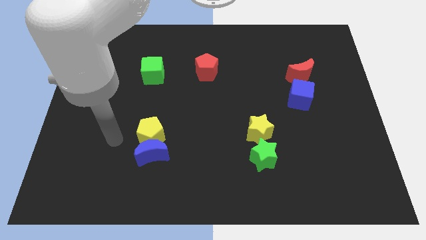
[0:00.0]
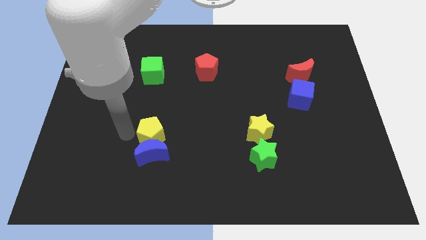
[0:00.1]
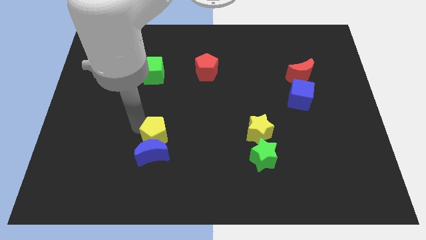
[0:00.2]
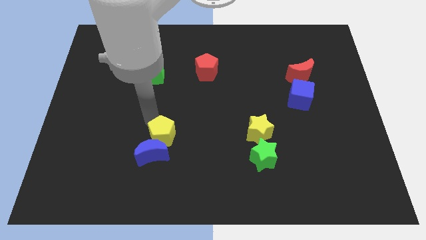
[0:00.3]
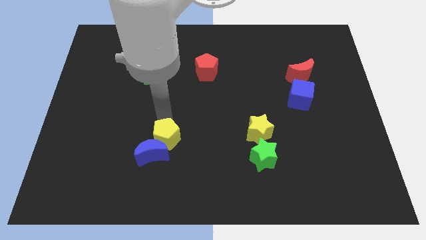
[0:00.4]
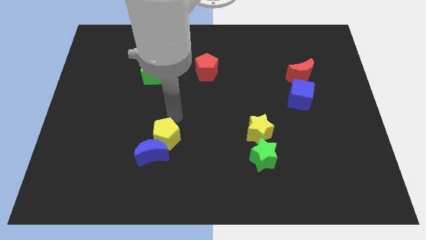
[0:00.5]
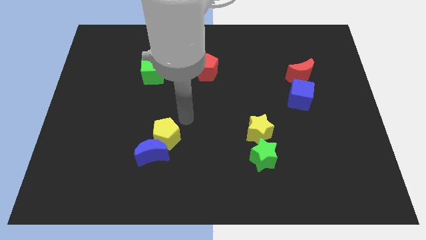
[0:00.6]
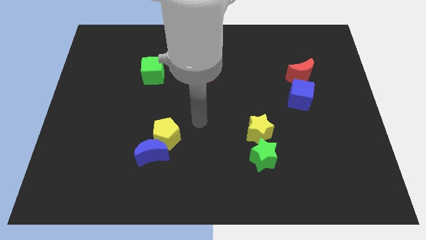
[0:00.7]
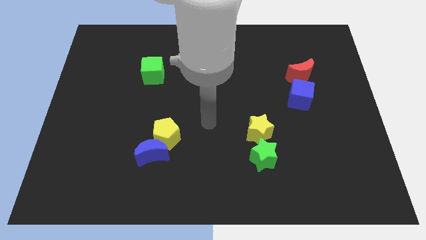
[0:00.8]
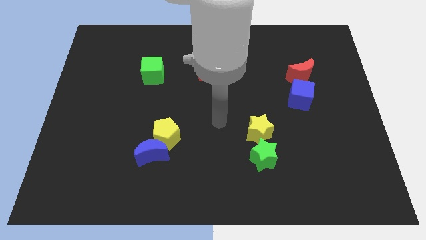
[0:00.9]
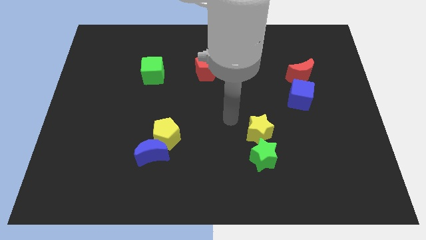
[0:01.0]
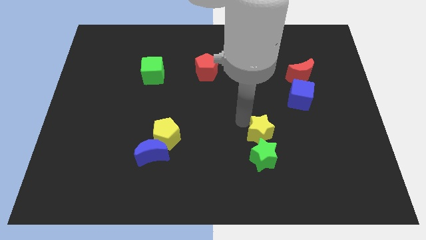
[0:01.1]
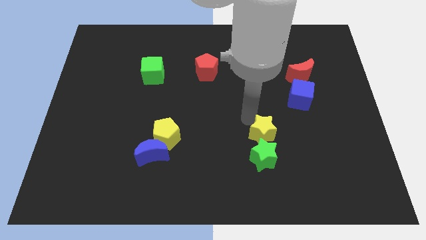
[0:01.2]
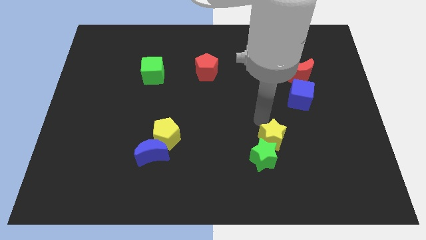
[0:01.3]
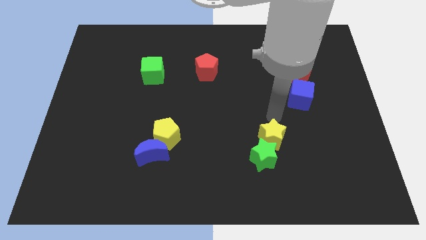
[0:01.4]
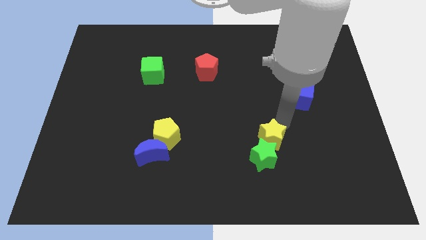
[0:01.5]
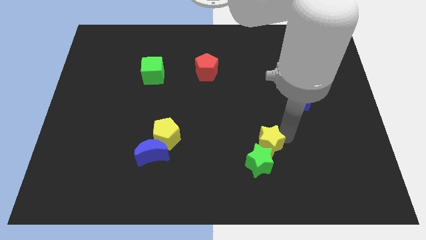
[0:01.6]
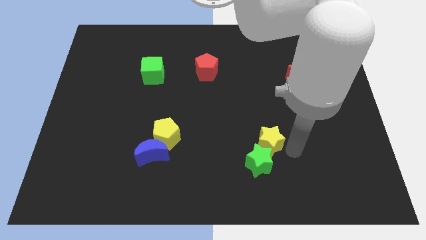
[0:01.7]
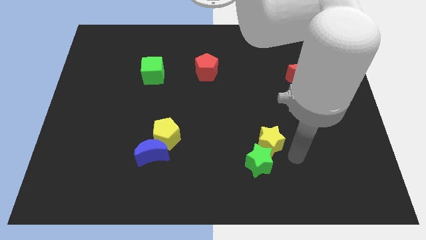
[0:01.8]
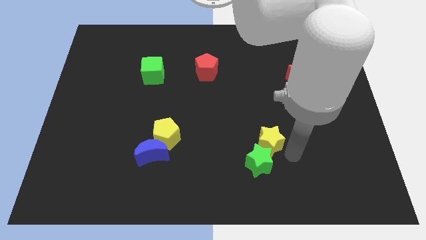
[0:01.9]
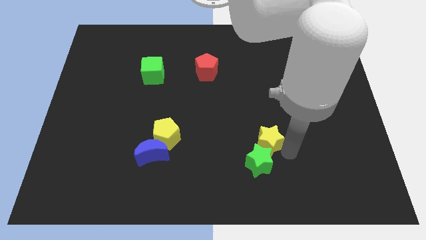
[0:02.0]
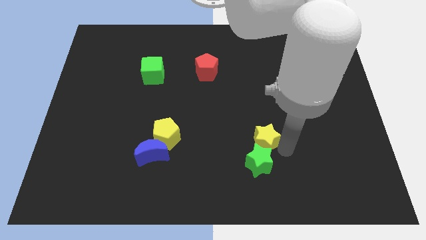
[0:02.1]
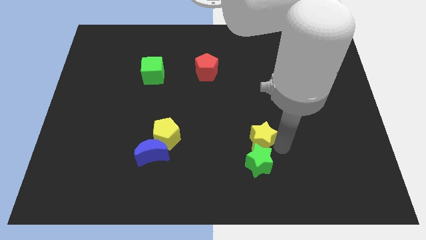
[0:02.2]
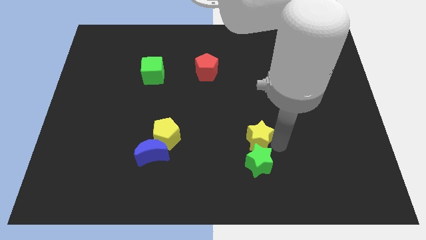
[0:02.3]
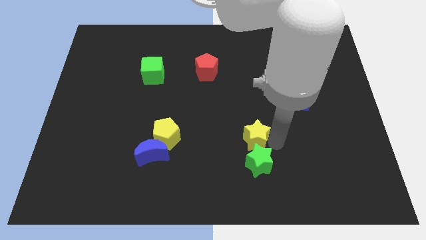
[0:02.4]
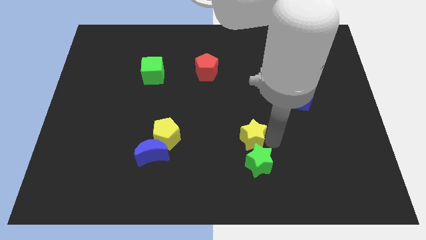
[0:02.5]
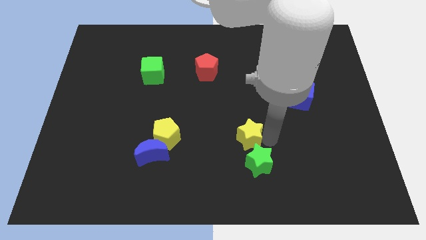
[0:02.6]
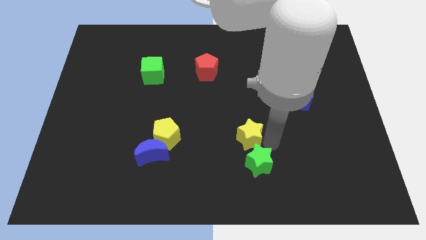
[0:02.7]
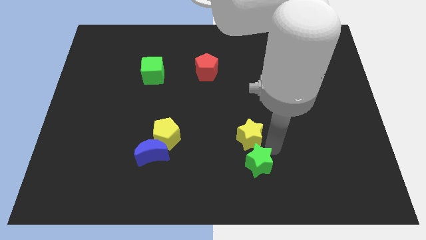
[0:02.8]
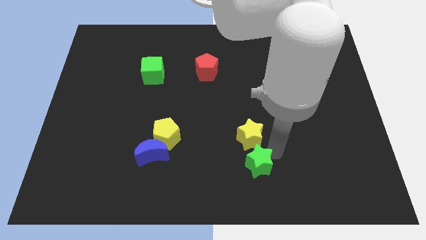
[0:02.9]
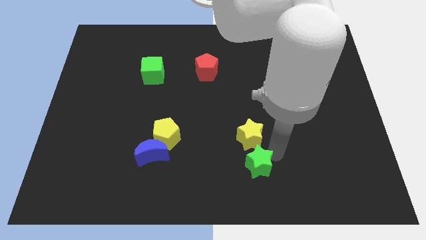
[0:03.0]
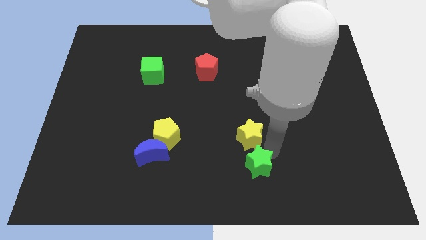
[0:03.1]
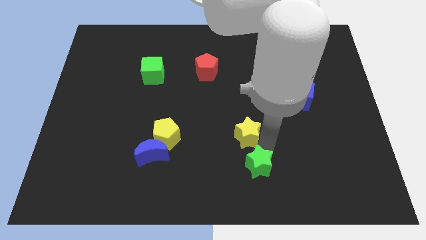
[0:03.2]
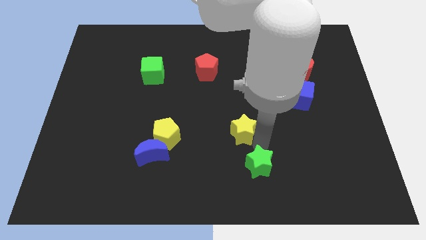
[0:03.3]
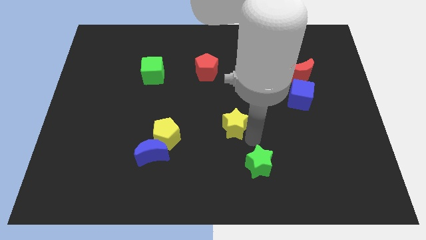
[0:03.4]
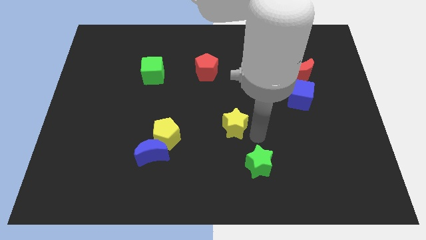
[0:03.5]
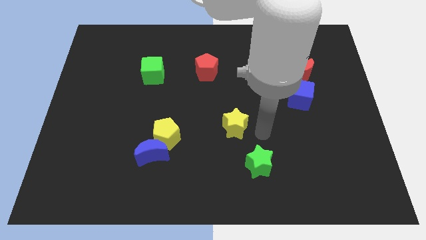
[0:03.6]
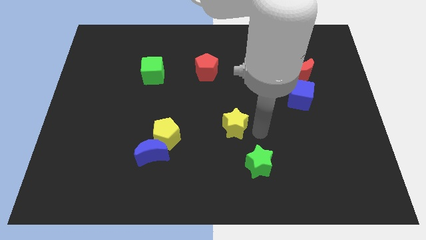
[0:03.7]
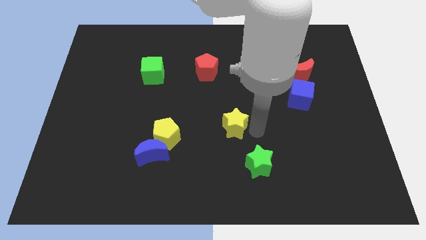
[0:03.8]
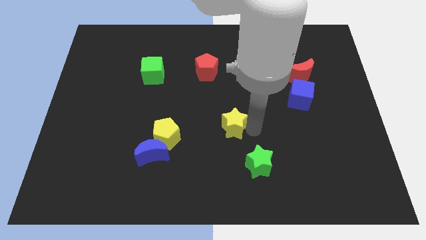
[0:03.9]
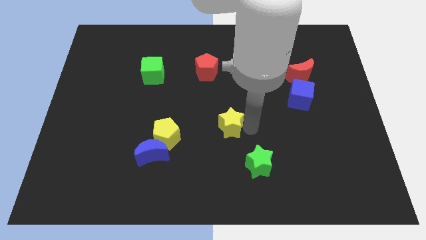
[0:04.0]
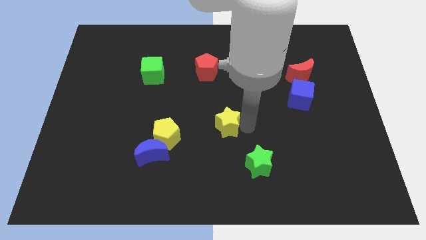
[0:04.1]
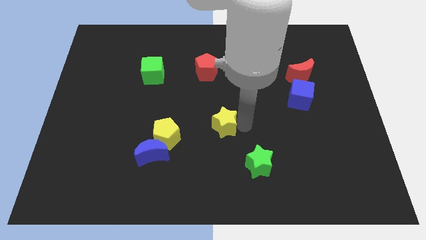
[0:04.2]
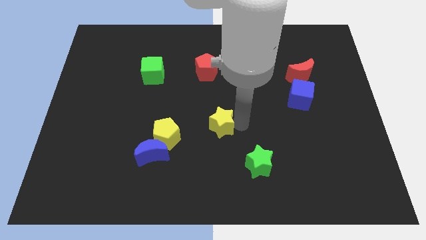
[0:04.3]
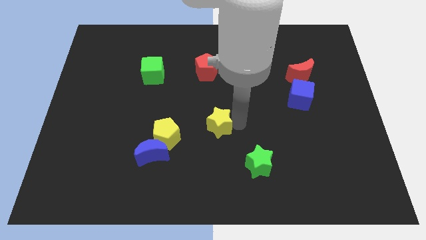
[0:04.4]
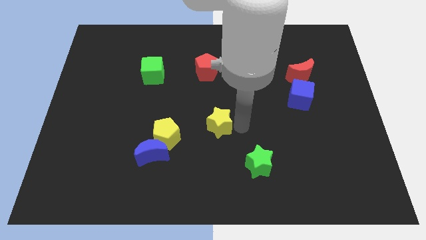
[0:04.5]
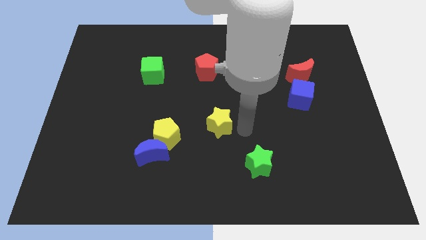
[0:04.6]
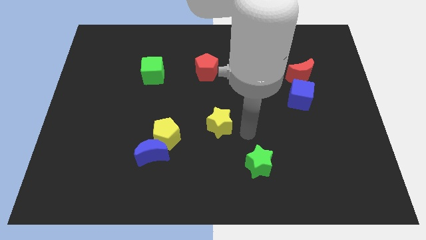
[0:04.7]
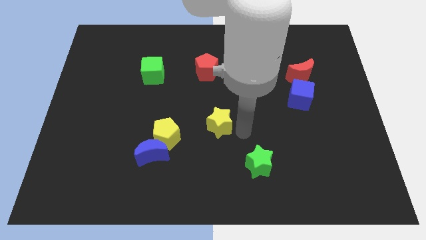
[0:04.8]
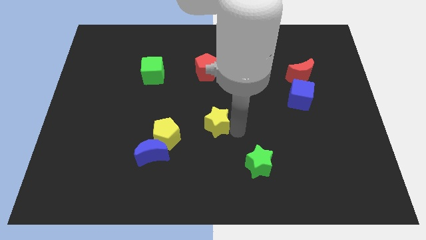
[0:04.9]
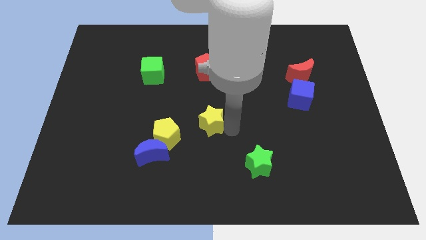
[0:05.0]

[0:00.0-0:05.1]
slide the yellow star to the top right side of the yellow pentagon

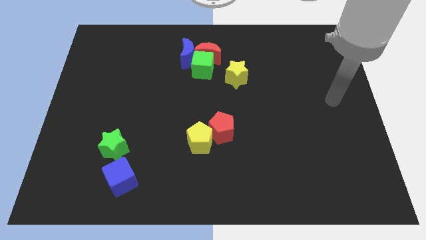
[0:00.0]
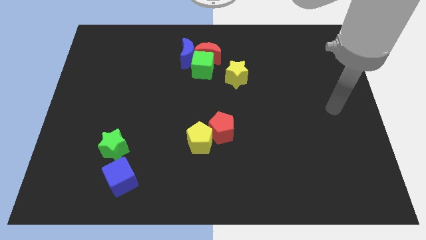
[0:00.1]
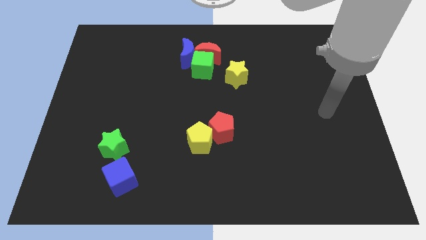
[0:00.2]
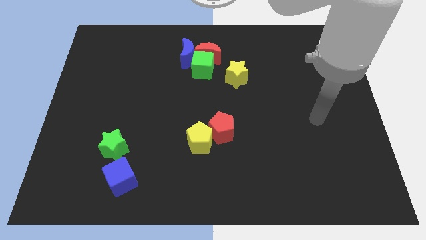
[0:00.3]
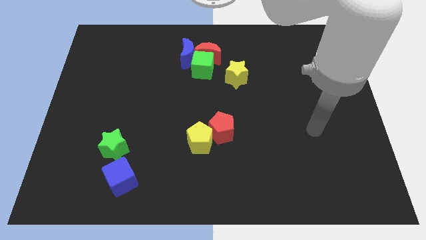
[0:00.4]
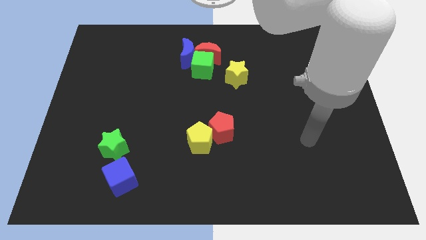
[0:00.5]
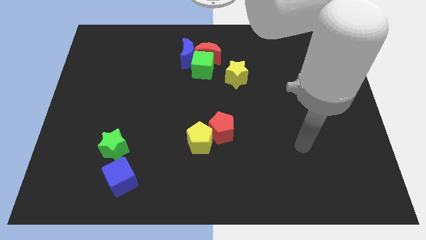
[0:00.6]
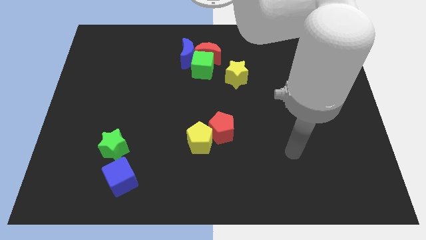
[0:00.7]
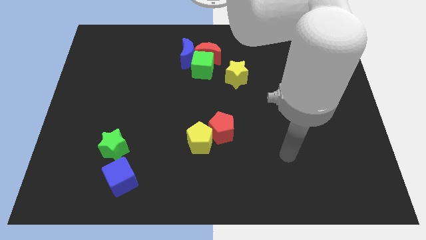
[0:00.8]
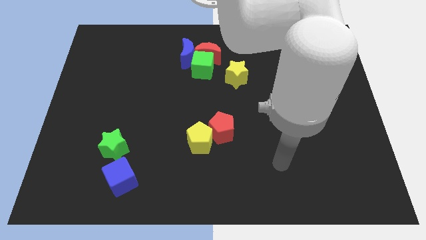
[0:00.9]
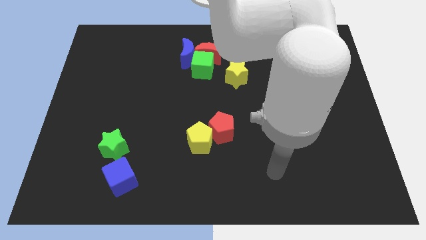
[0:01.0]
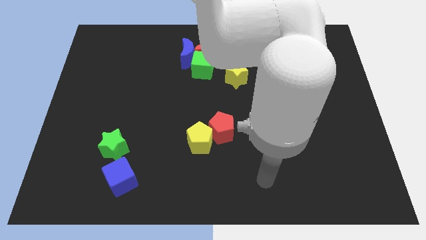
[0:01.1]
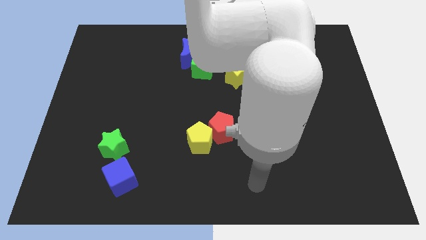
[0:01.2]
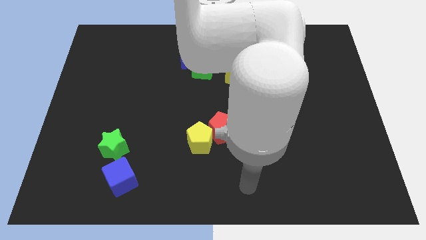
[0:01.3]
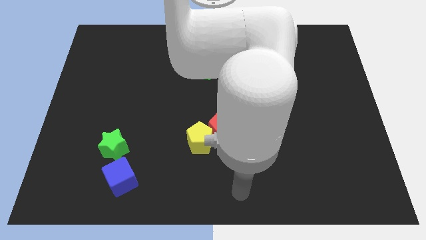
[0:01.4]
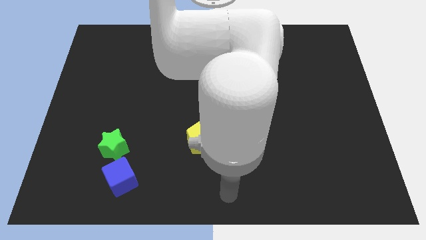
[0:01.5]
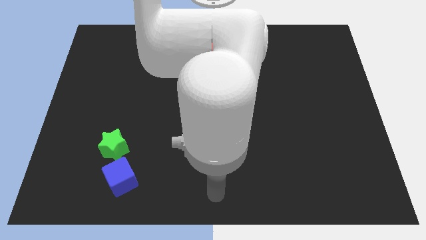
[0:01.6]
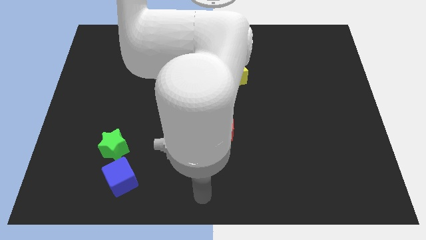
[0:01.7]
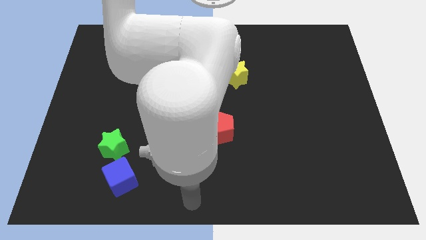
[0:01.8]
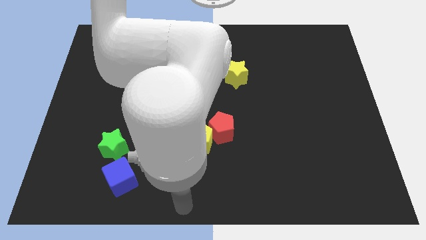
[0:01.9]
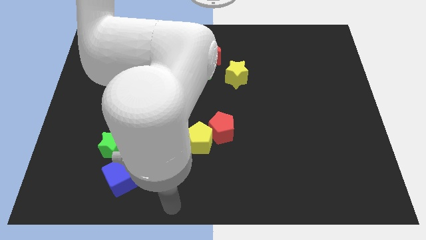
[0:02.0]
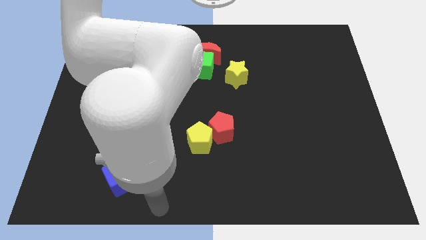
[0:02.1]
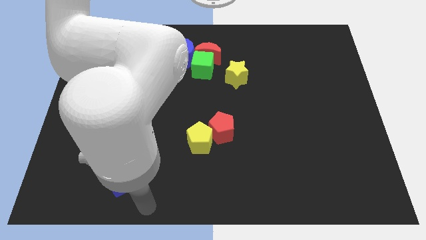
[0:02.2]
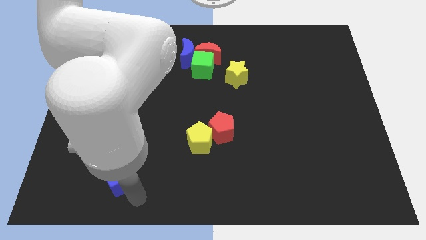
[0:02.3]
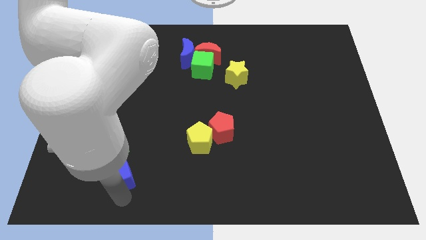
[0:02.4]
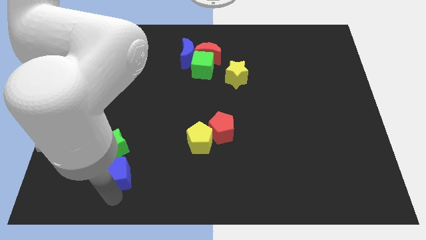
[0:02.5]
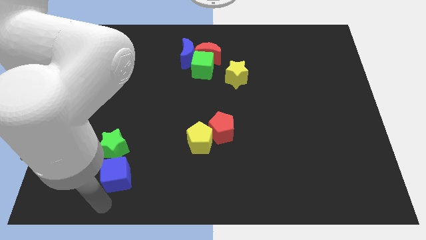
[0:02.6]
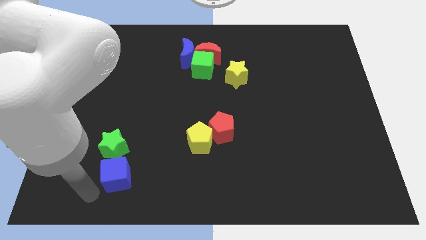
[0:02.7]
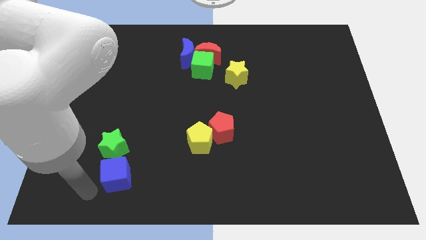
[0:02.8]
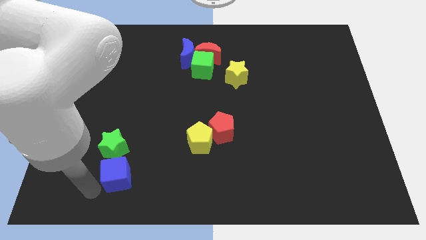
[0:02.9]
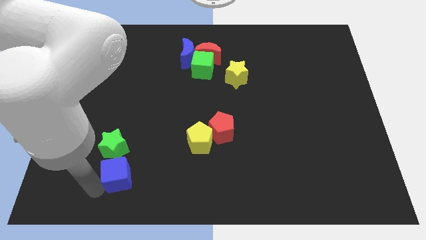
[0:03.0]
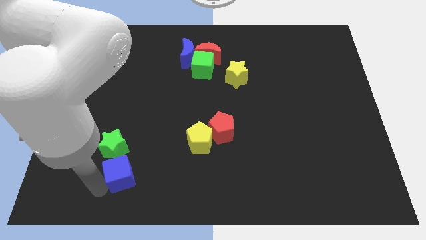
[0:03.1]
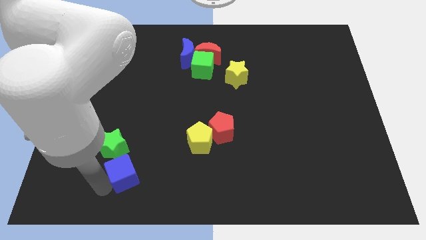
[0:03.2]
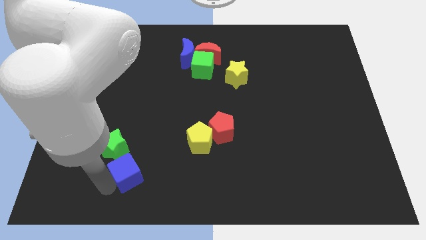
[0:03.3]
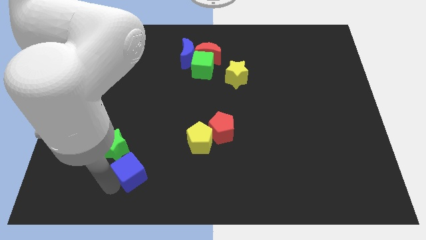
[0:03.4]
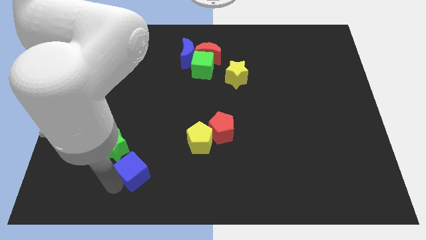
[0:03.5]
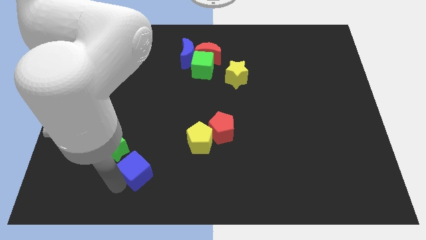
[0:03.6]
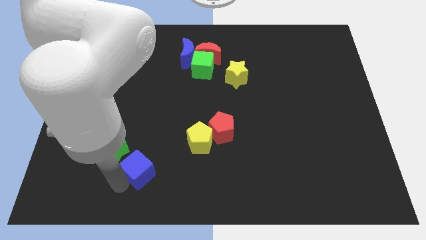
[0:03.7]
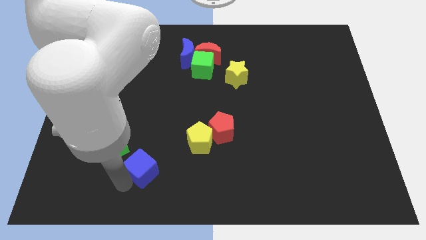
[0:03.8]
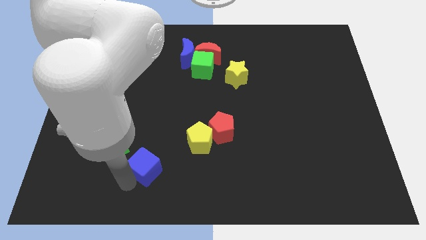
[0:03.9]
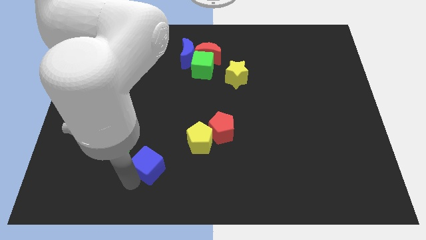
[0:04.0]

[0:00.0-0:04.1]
move the blue cube right of the green star
